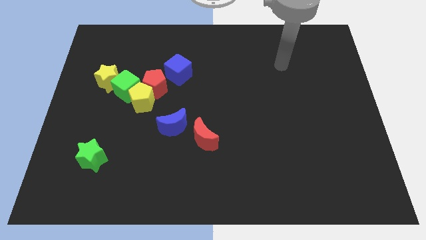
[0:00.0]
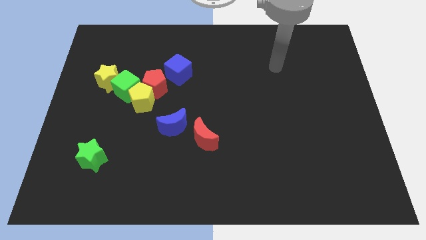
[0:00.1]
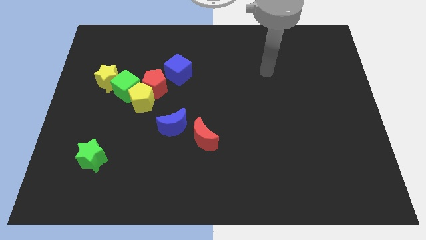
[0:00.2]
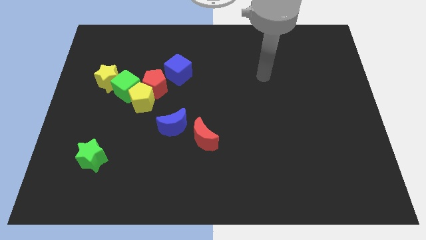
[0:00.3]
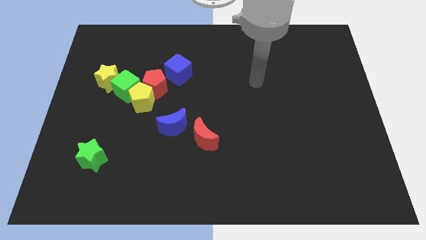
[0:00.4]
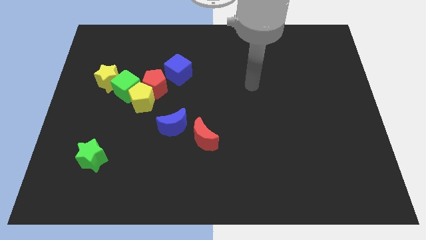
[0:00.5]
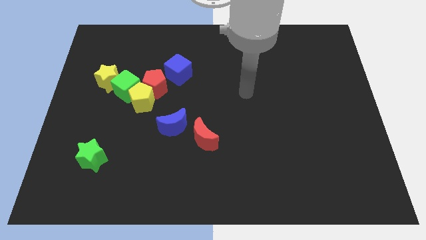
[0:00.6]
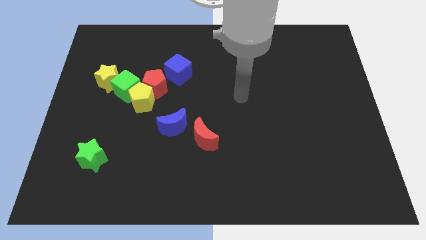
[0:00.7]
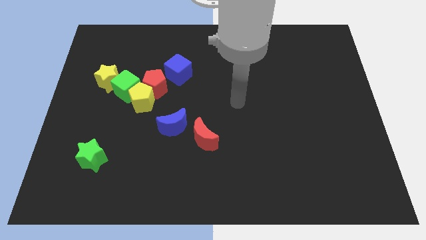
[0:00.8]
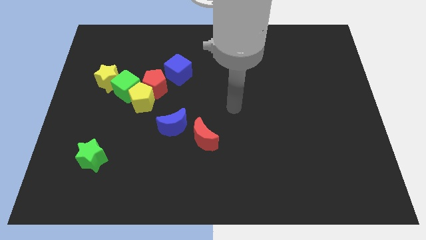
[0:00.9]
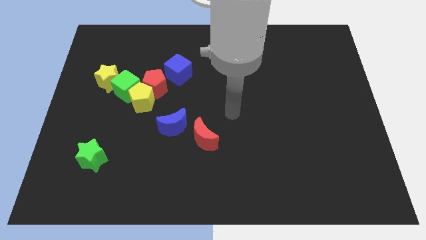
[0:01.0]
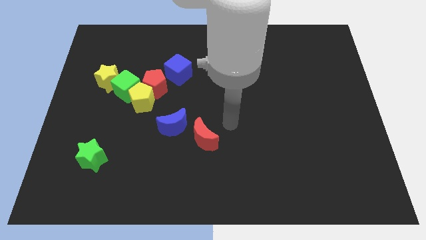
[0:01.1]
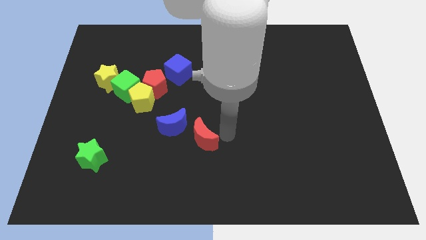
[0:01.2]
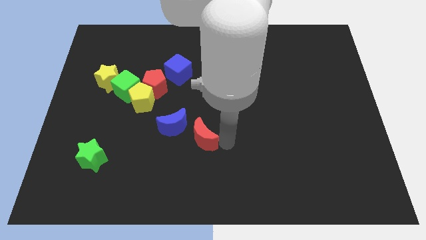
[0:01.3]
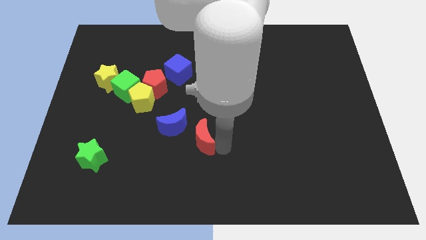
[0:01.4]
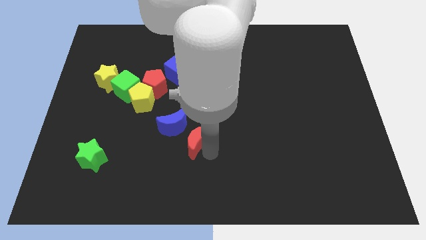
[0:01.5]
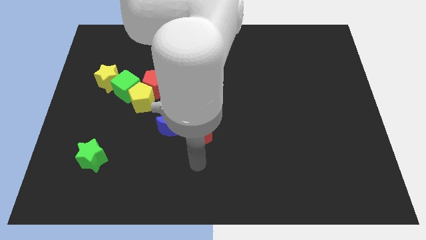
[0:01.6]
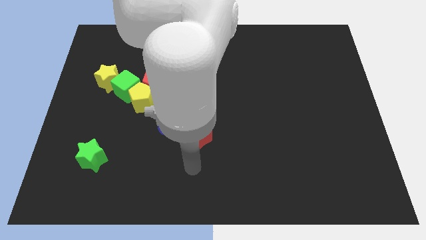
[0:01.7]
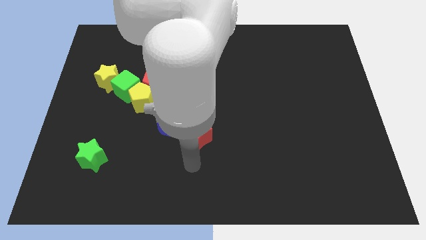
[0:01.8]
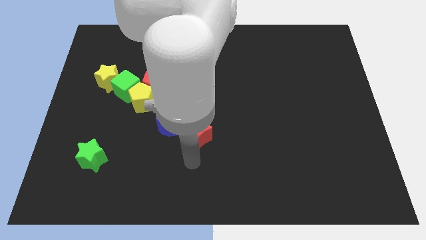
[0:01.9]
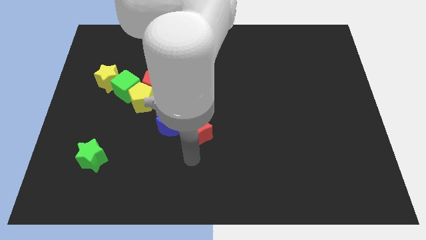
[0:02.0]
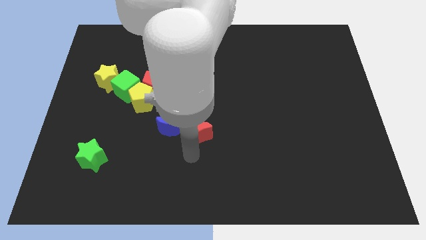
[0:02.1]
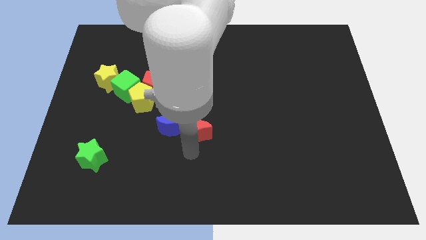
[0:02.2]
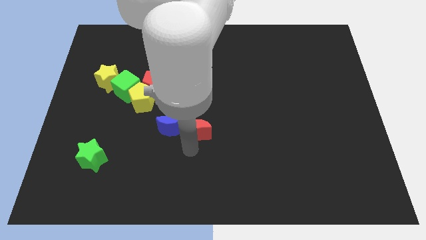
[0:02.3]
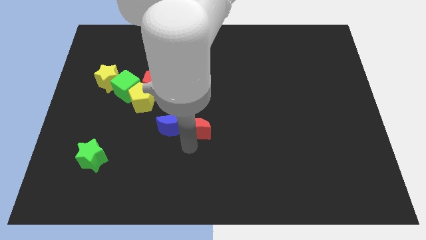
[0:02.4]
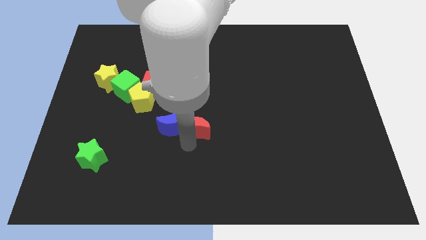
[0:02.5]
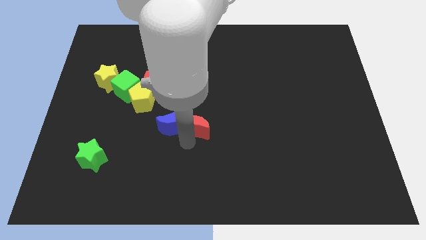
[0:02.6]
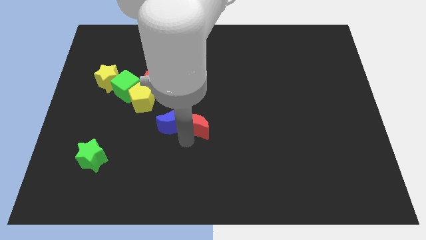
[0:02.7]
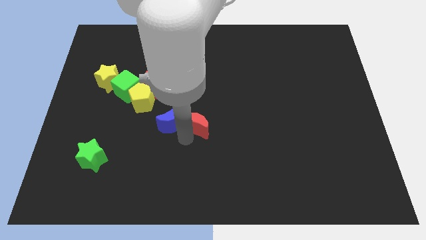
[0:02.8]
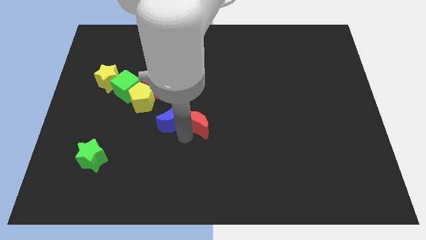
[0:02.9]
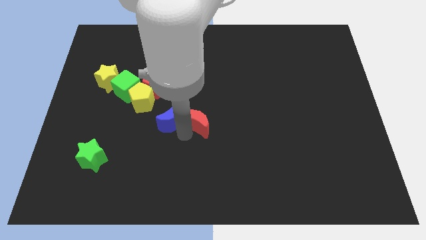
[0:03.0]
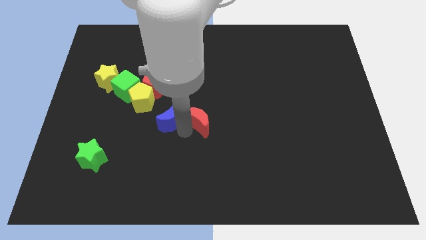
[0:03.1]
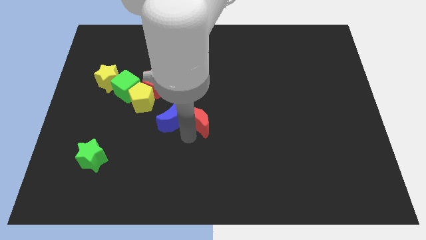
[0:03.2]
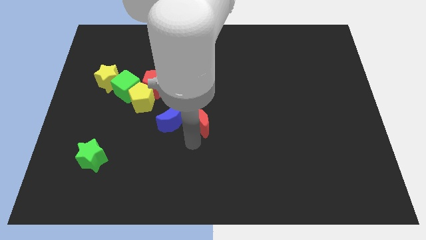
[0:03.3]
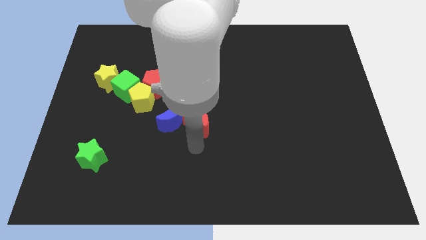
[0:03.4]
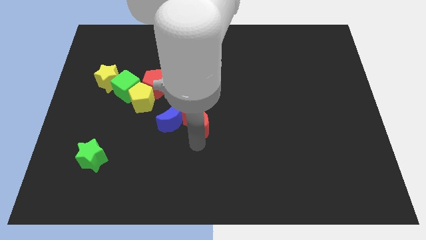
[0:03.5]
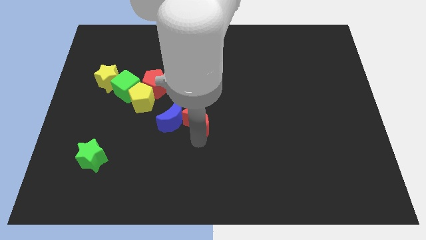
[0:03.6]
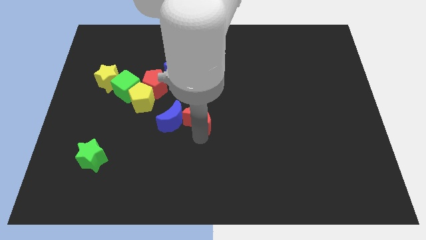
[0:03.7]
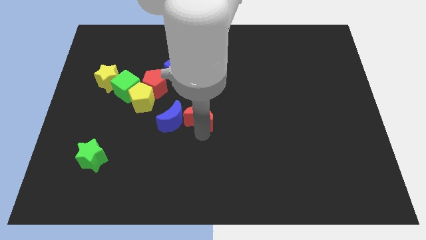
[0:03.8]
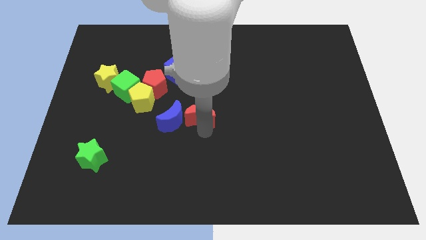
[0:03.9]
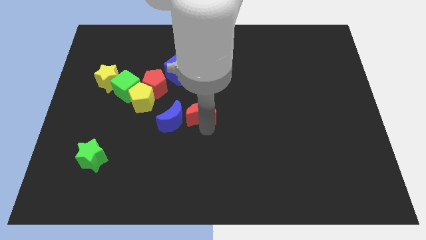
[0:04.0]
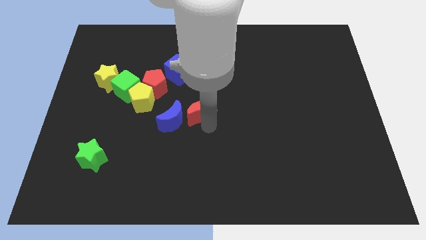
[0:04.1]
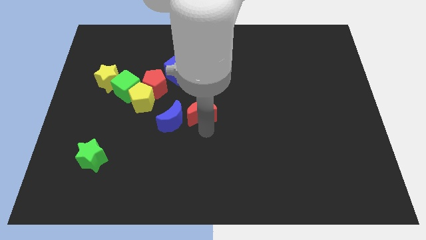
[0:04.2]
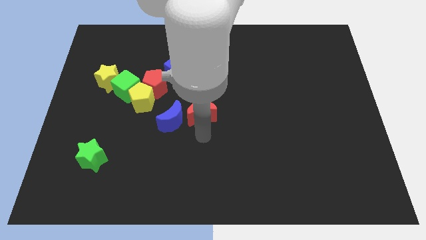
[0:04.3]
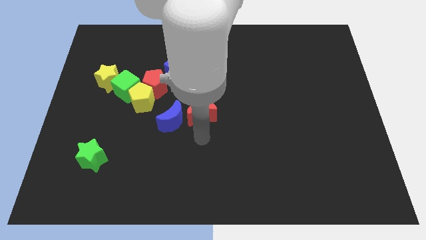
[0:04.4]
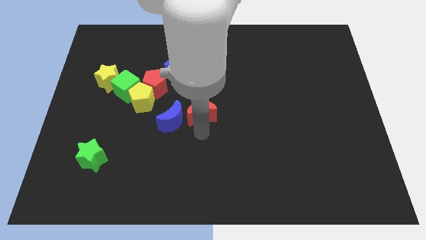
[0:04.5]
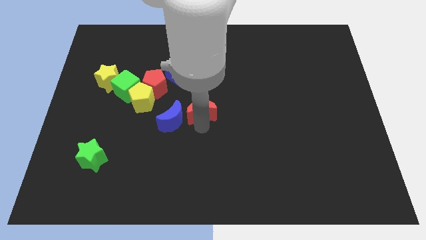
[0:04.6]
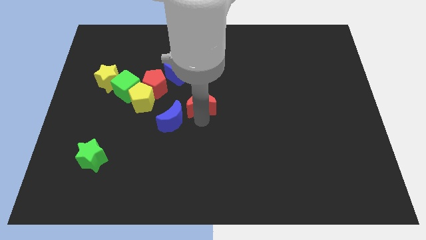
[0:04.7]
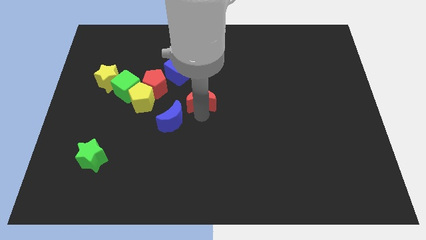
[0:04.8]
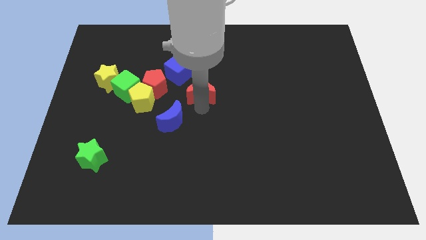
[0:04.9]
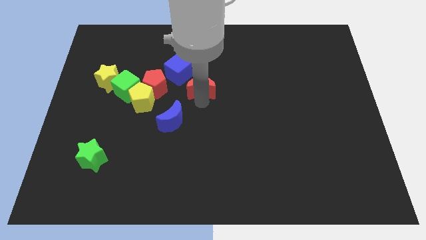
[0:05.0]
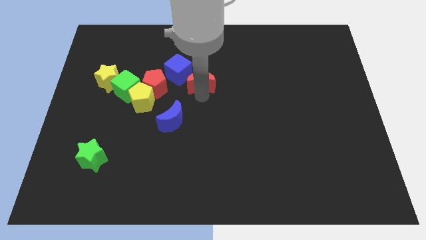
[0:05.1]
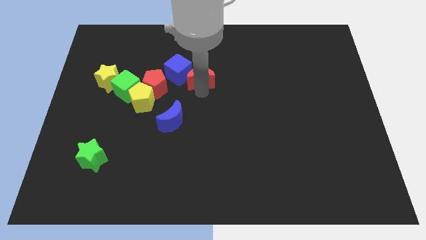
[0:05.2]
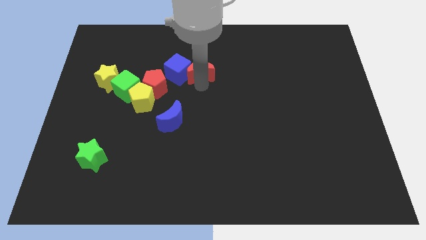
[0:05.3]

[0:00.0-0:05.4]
move the red moon to the top right of the blue cube
